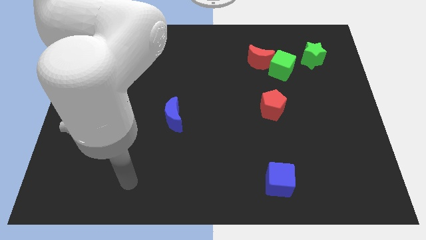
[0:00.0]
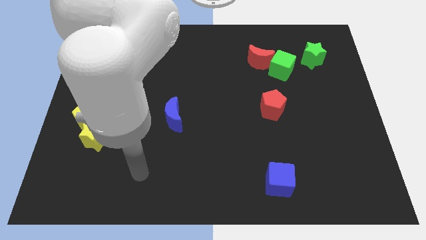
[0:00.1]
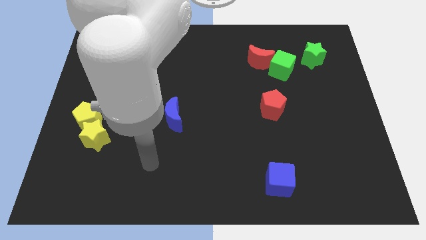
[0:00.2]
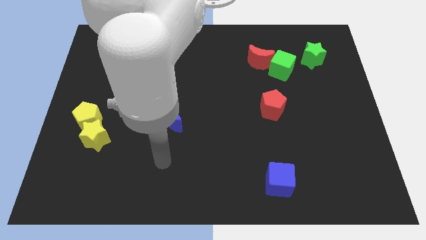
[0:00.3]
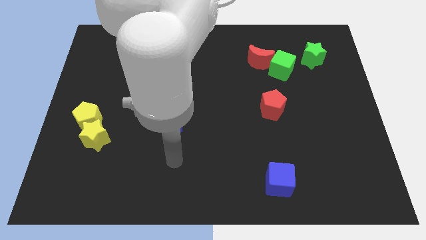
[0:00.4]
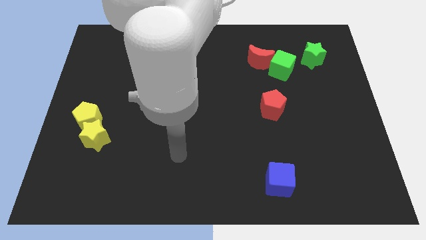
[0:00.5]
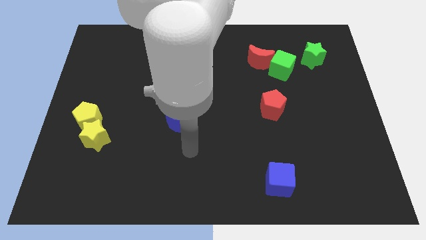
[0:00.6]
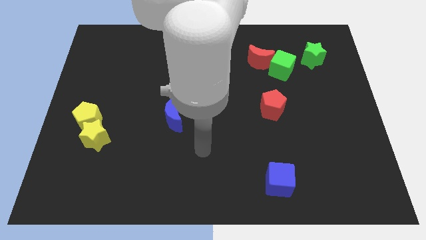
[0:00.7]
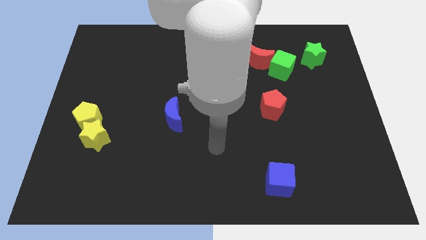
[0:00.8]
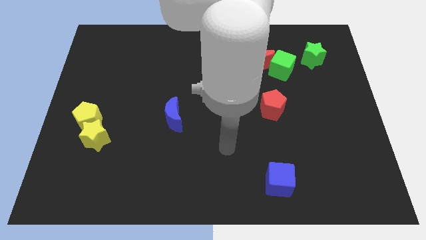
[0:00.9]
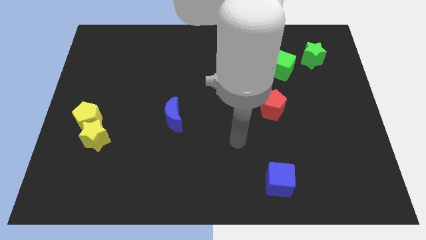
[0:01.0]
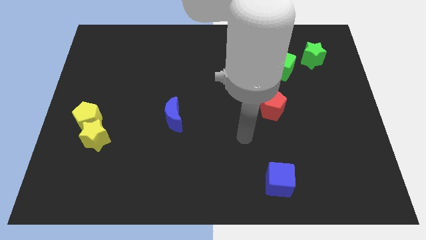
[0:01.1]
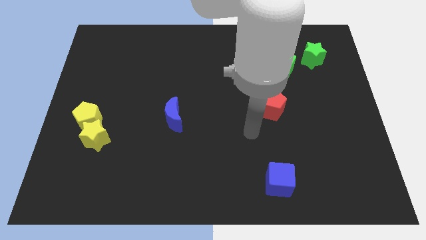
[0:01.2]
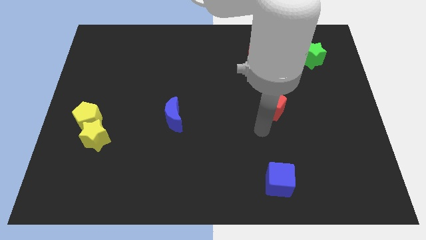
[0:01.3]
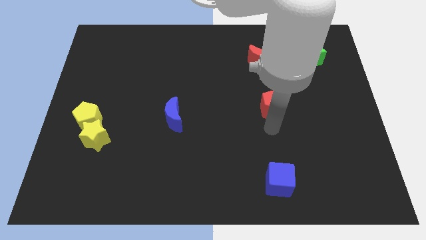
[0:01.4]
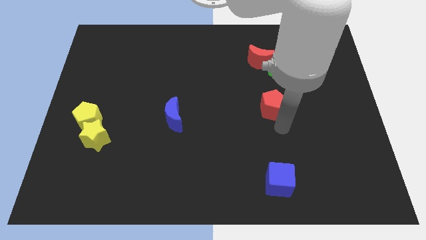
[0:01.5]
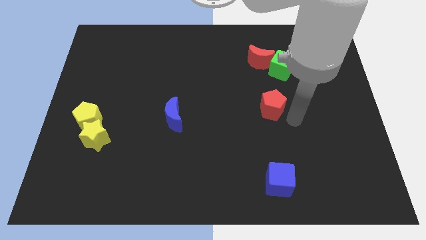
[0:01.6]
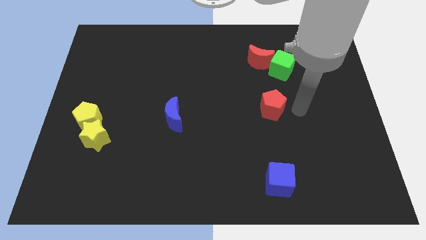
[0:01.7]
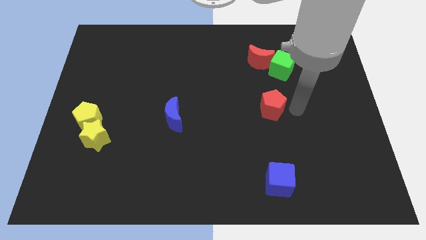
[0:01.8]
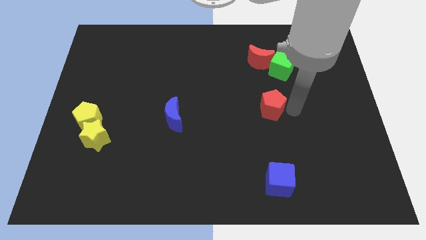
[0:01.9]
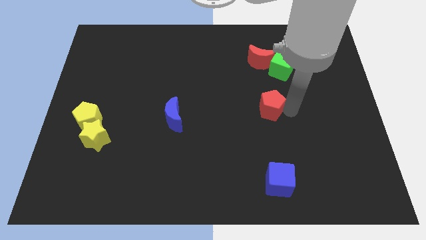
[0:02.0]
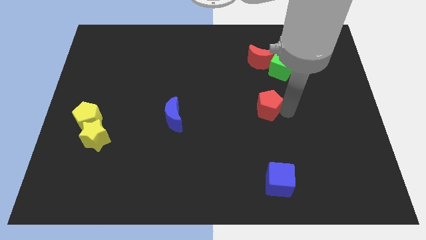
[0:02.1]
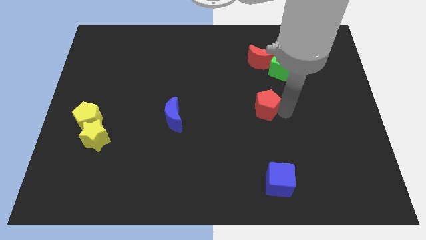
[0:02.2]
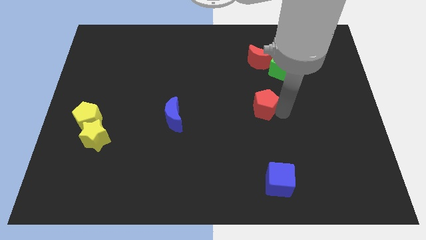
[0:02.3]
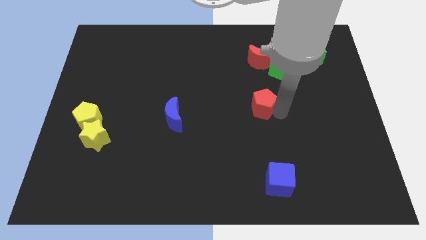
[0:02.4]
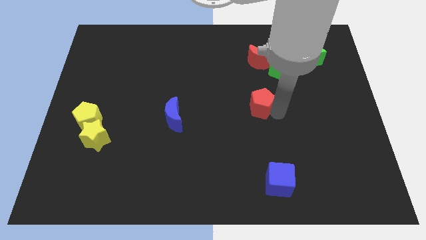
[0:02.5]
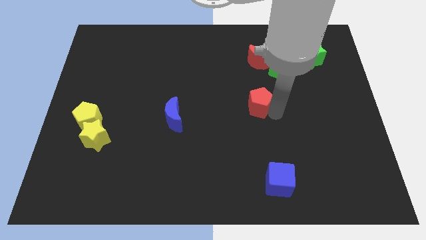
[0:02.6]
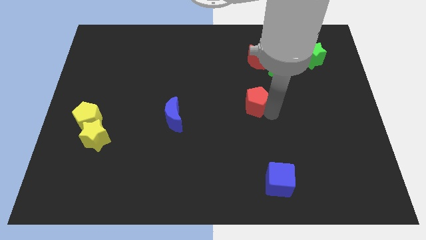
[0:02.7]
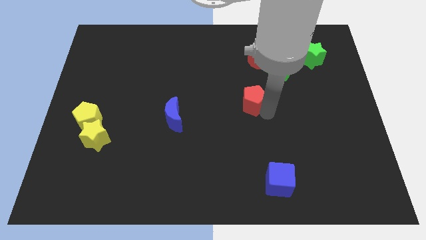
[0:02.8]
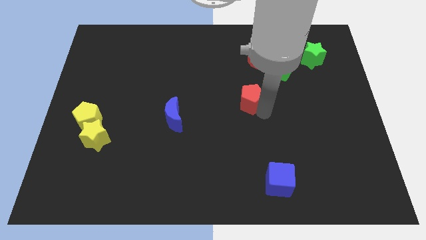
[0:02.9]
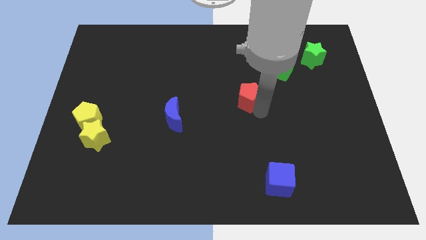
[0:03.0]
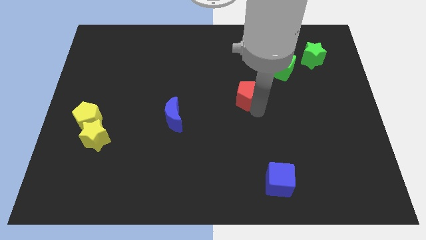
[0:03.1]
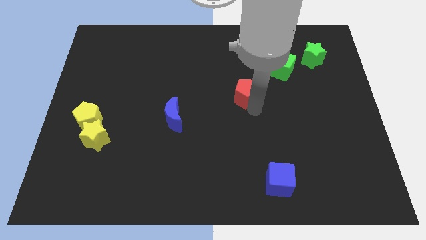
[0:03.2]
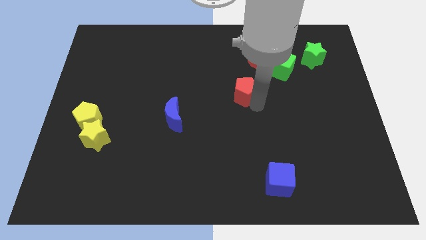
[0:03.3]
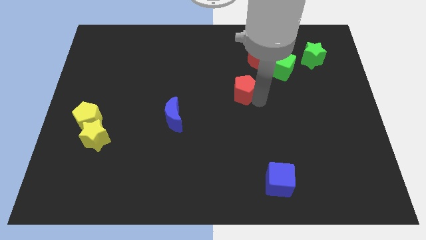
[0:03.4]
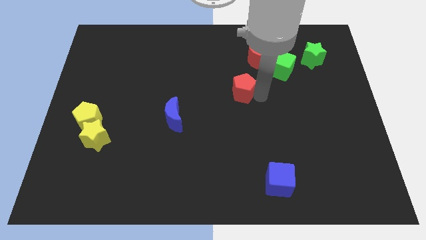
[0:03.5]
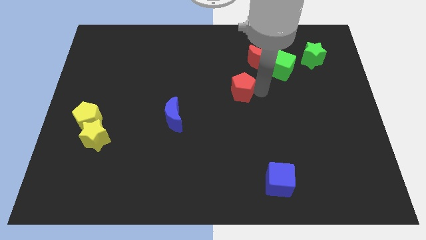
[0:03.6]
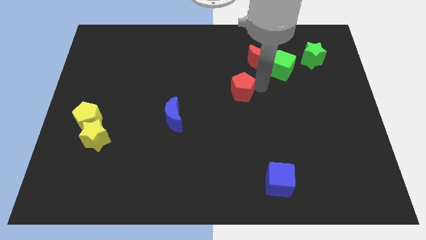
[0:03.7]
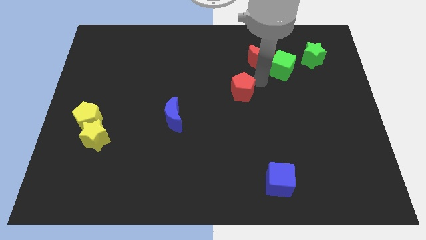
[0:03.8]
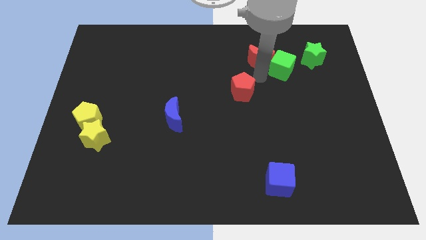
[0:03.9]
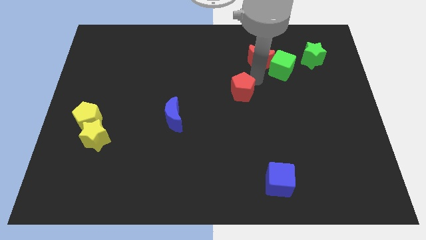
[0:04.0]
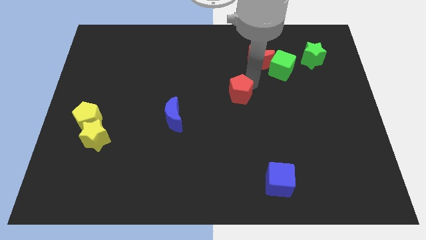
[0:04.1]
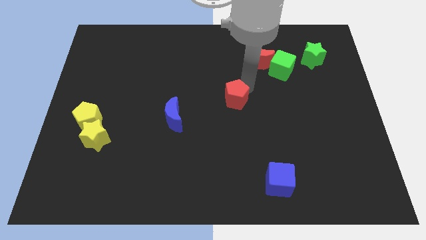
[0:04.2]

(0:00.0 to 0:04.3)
push the red pentagon a bit to the left

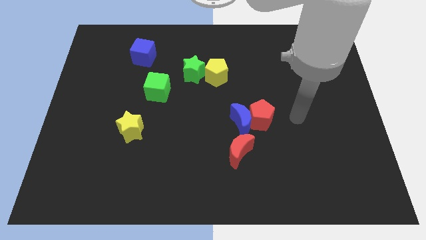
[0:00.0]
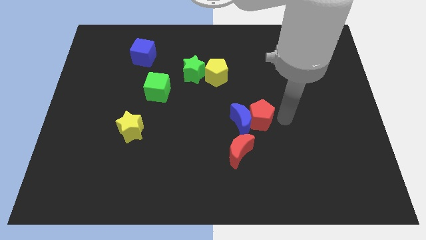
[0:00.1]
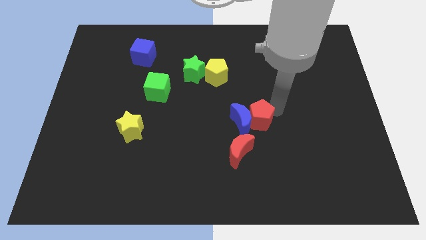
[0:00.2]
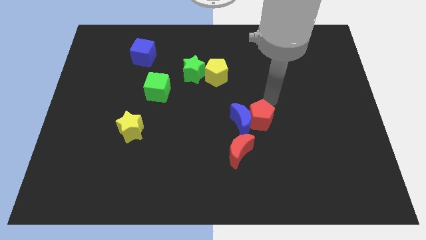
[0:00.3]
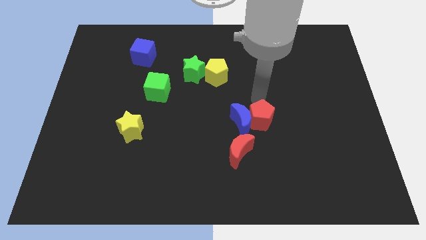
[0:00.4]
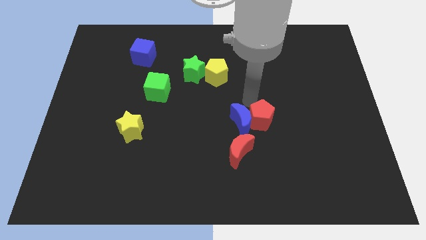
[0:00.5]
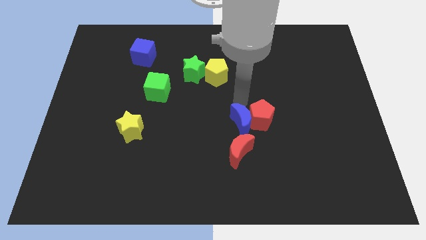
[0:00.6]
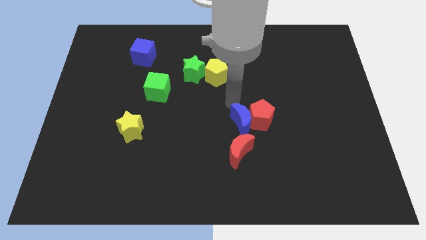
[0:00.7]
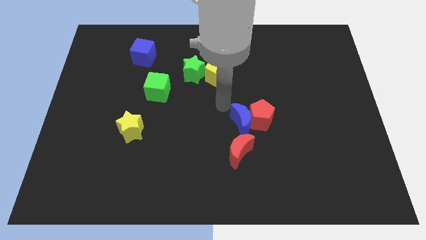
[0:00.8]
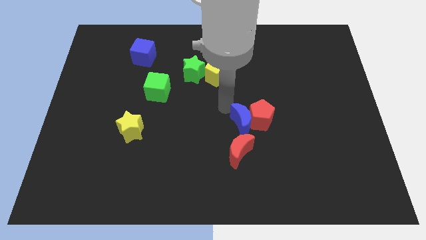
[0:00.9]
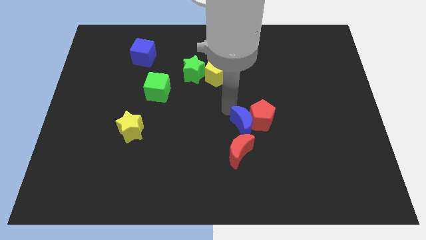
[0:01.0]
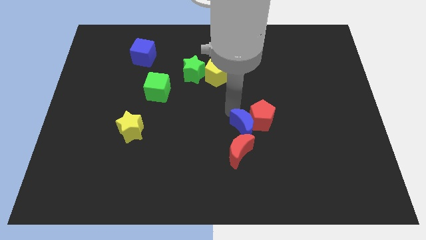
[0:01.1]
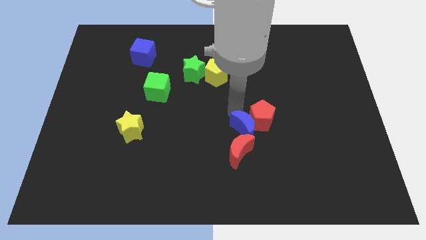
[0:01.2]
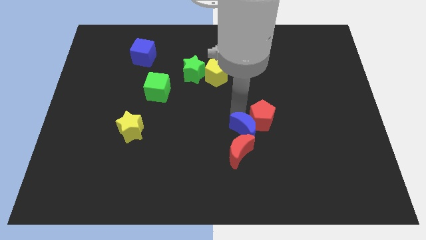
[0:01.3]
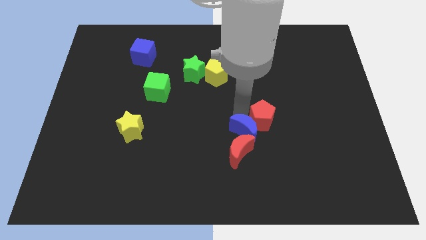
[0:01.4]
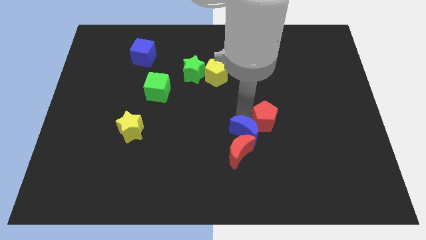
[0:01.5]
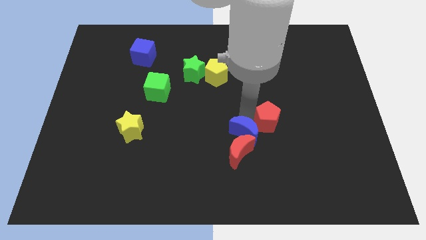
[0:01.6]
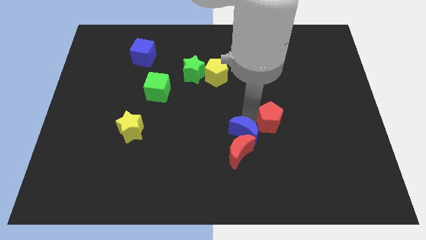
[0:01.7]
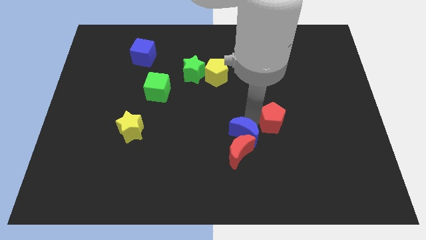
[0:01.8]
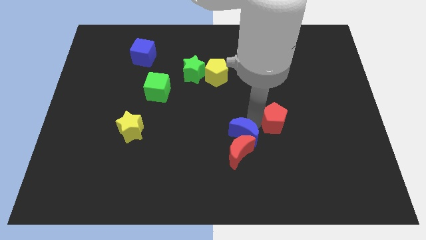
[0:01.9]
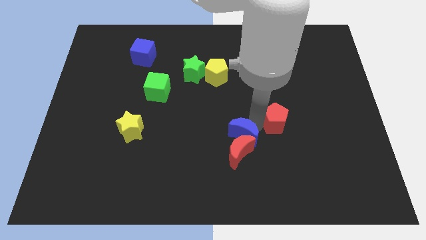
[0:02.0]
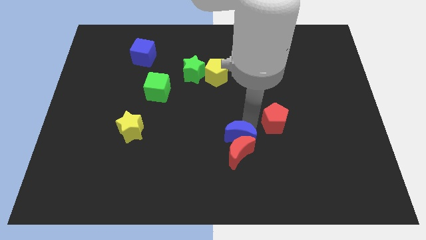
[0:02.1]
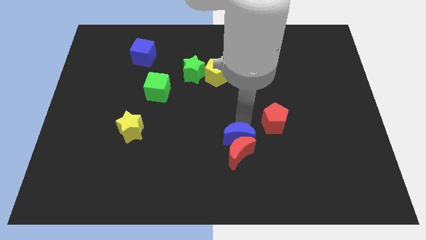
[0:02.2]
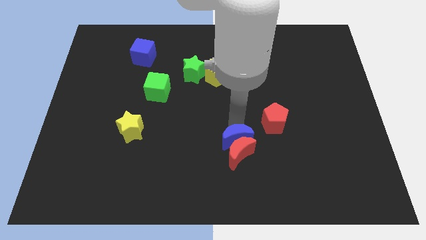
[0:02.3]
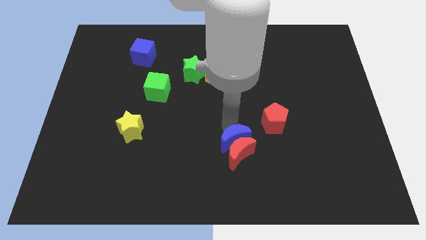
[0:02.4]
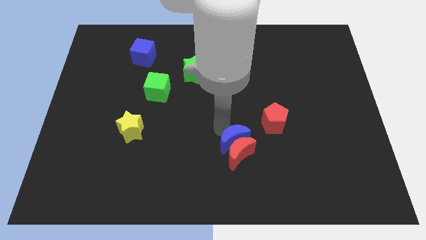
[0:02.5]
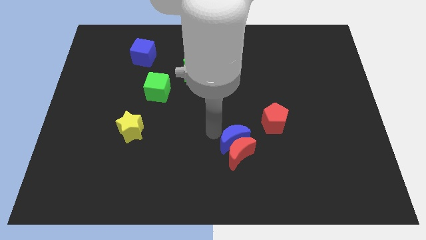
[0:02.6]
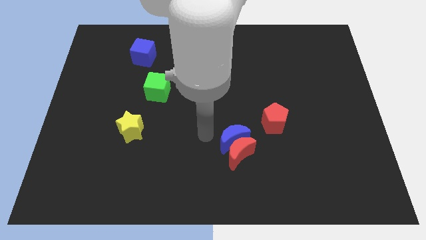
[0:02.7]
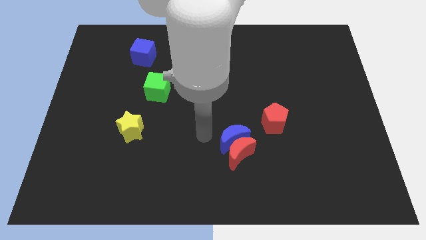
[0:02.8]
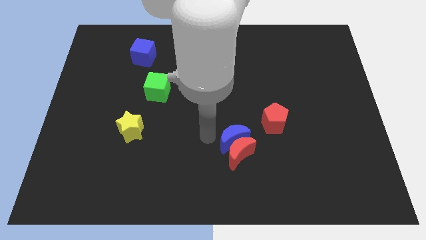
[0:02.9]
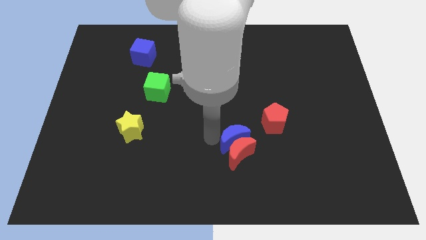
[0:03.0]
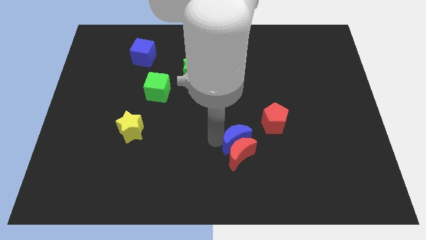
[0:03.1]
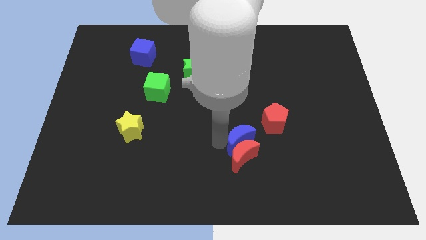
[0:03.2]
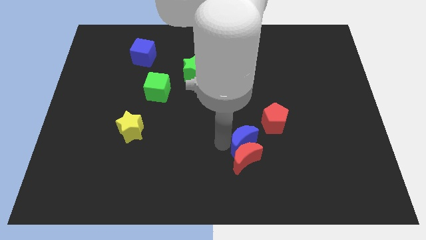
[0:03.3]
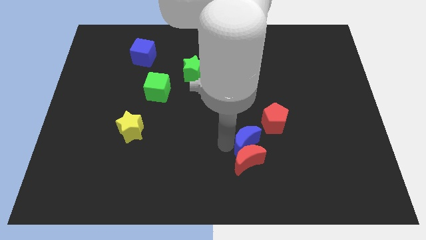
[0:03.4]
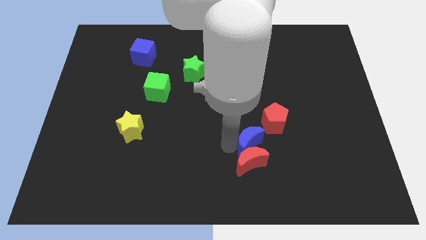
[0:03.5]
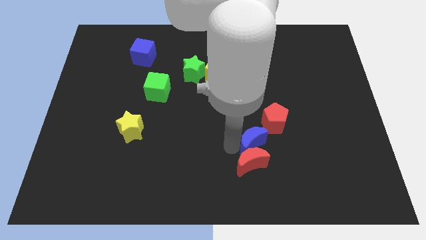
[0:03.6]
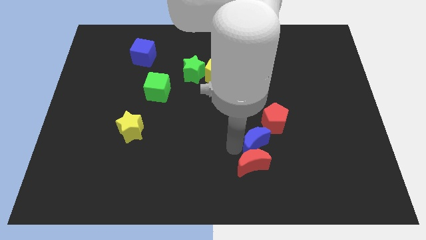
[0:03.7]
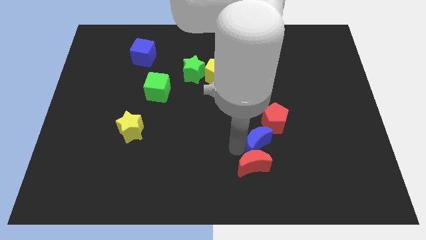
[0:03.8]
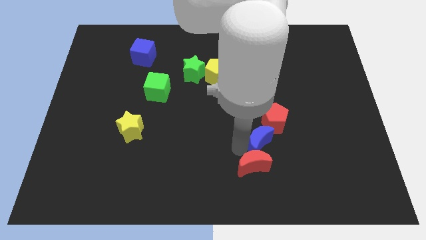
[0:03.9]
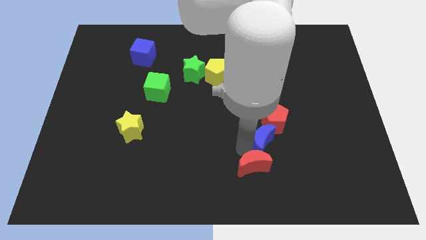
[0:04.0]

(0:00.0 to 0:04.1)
slide the blue moon a little bit down and then to the right
